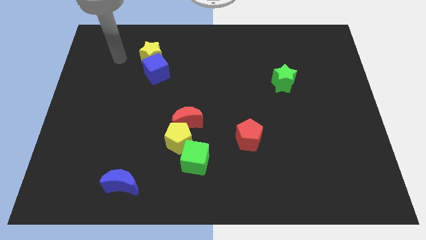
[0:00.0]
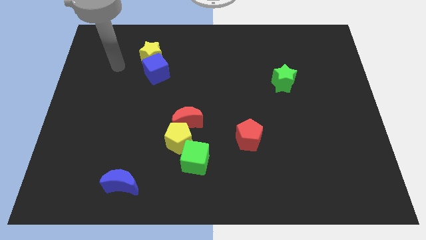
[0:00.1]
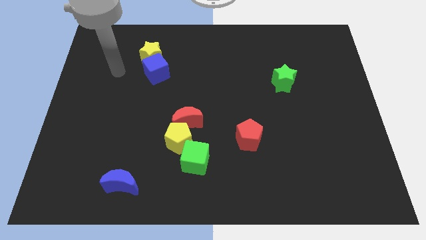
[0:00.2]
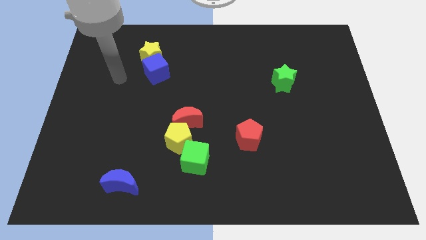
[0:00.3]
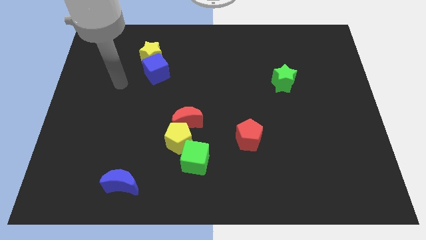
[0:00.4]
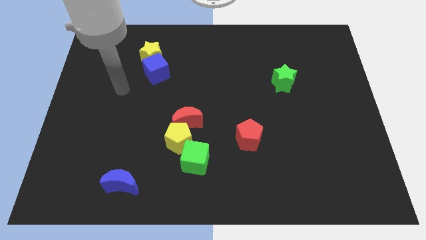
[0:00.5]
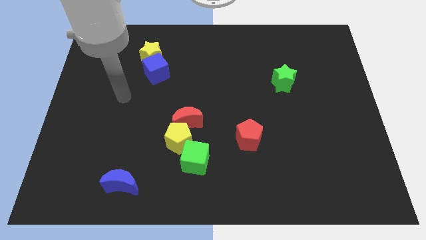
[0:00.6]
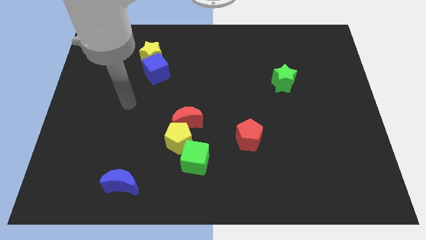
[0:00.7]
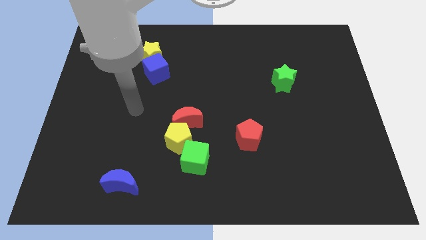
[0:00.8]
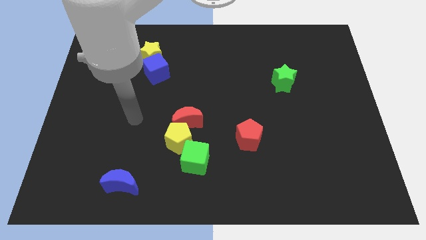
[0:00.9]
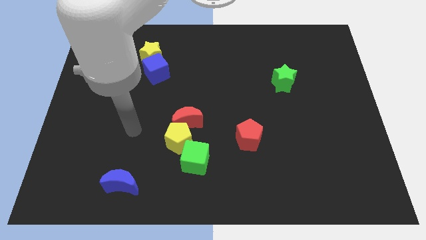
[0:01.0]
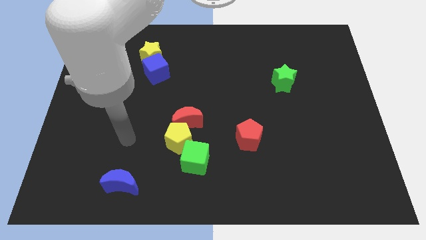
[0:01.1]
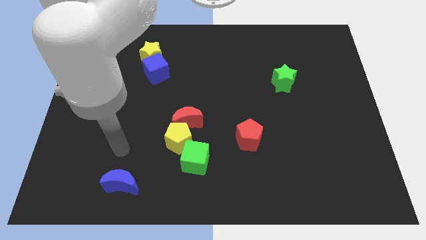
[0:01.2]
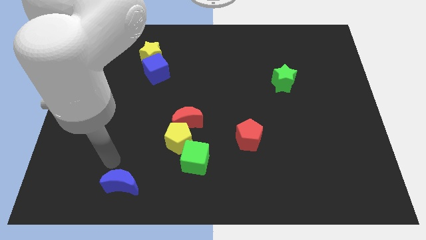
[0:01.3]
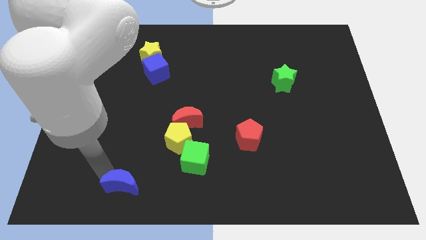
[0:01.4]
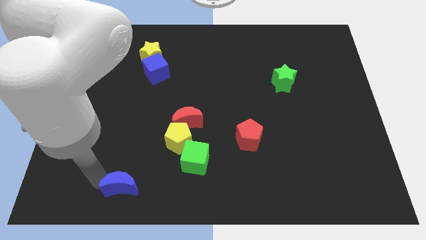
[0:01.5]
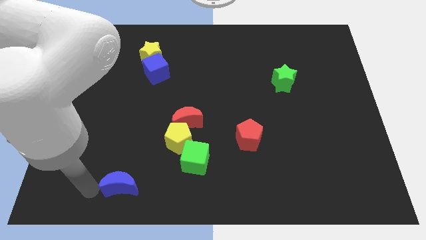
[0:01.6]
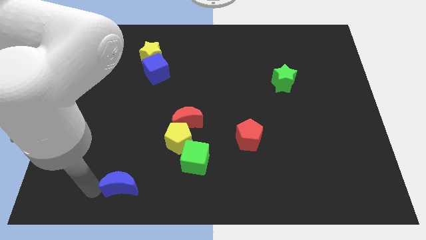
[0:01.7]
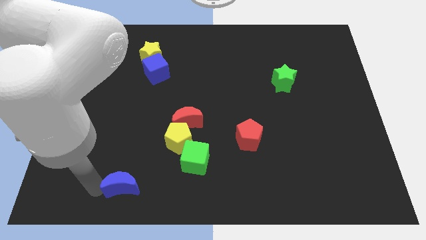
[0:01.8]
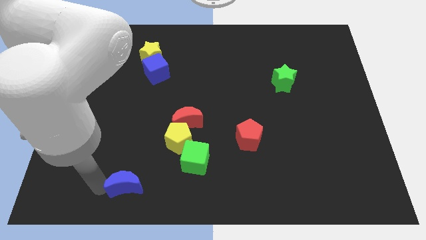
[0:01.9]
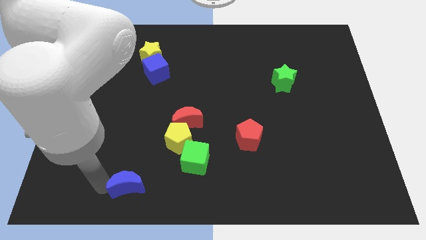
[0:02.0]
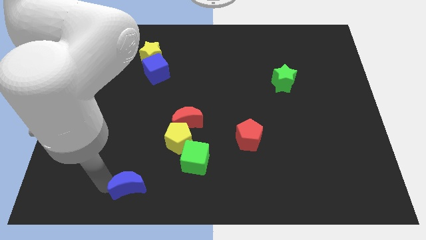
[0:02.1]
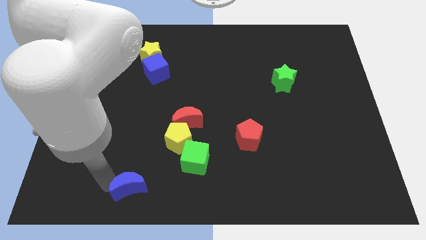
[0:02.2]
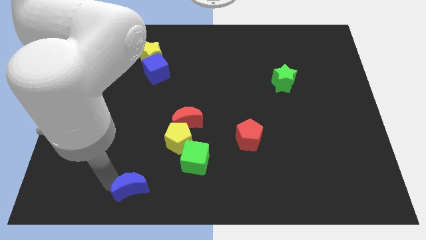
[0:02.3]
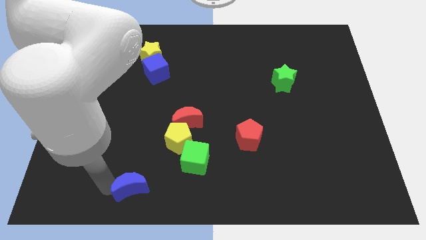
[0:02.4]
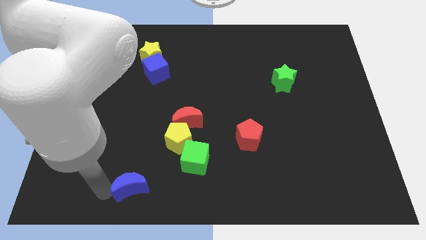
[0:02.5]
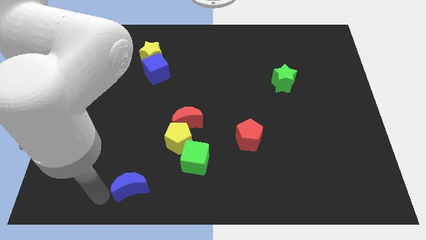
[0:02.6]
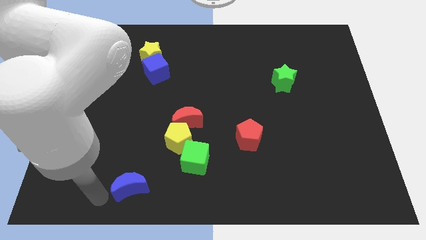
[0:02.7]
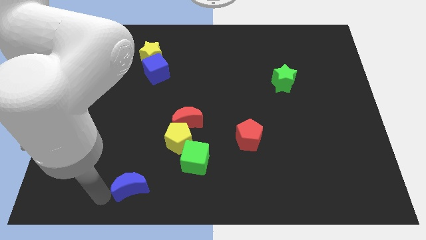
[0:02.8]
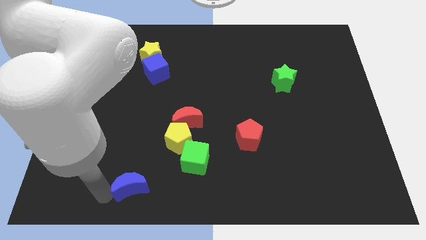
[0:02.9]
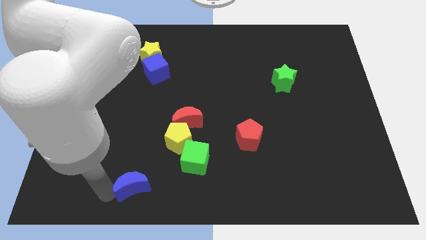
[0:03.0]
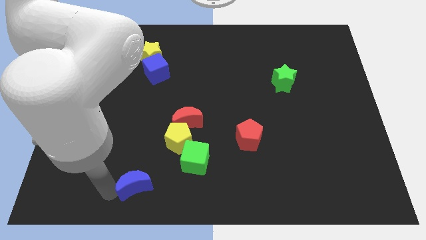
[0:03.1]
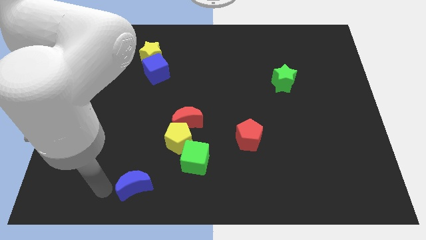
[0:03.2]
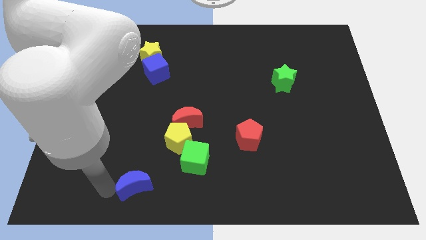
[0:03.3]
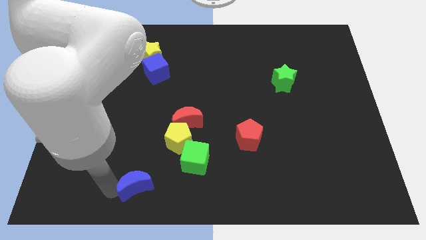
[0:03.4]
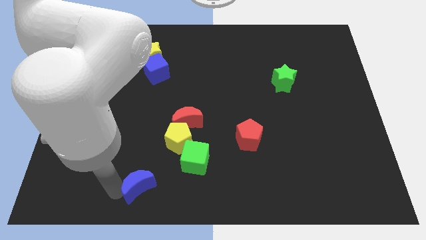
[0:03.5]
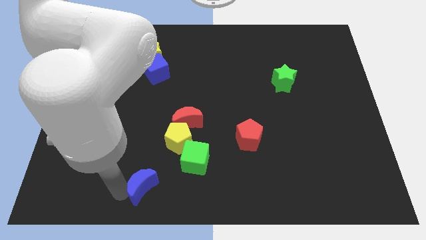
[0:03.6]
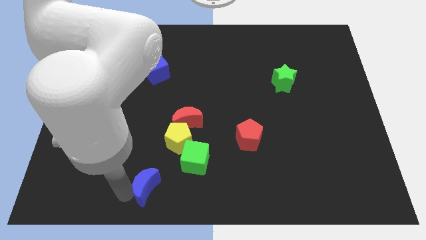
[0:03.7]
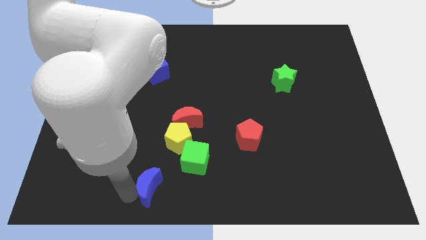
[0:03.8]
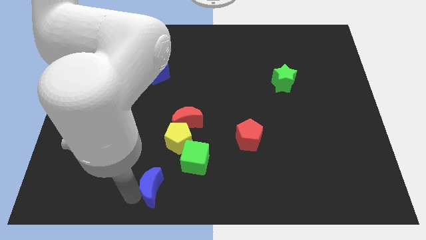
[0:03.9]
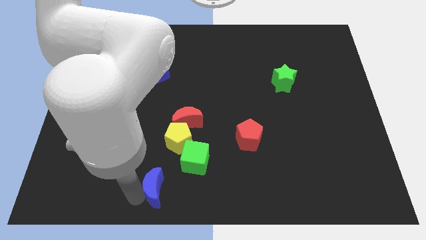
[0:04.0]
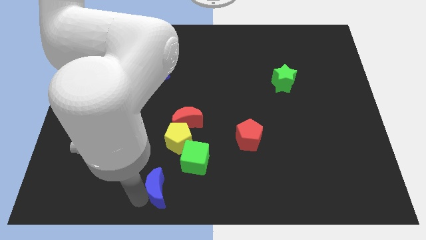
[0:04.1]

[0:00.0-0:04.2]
push the blue moon to the right somewhat

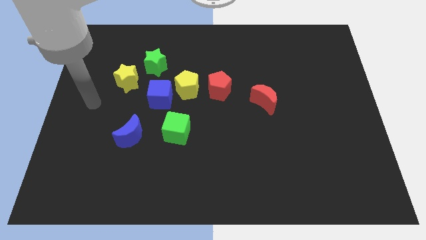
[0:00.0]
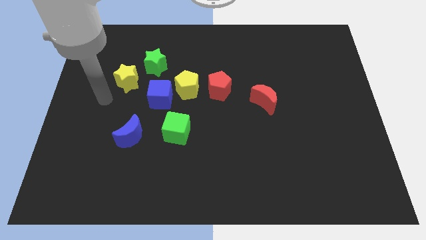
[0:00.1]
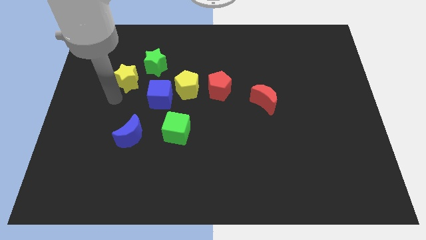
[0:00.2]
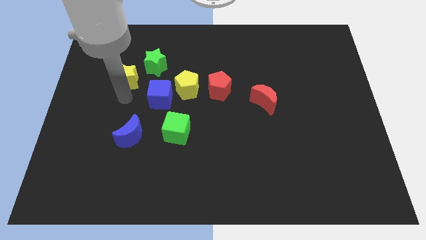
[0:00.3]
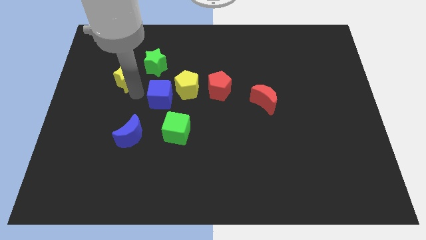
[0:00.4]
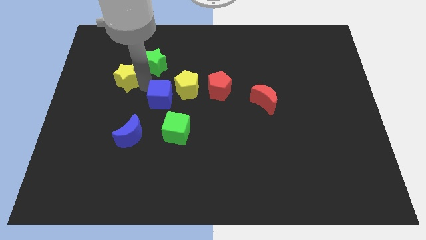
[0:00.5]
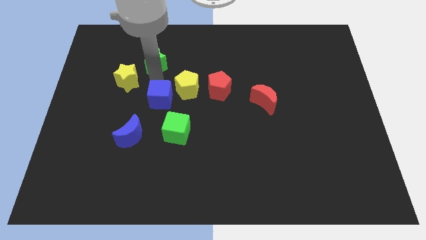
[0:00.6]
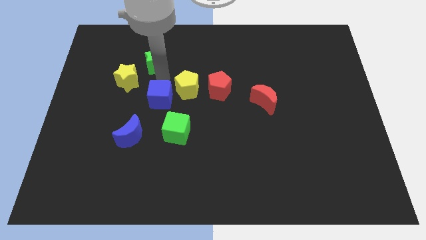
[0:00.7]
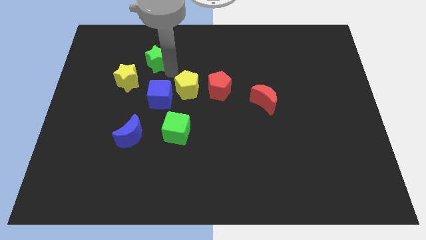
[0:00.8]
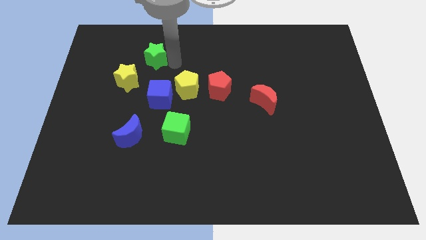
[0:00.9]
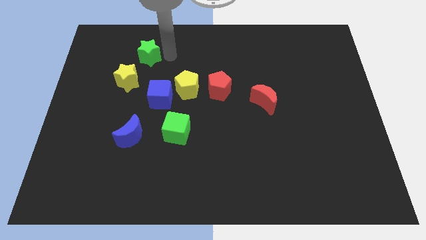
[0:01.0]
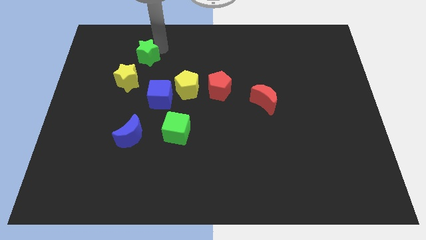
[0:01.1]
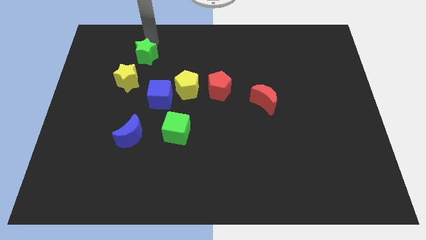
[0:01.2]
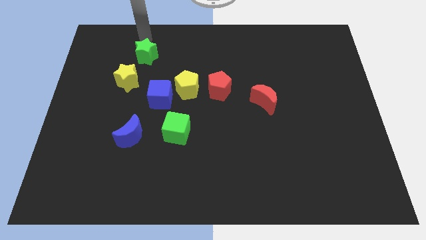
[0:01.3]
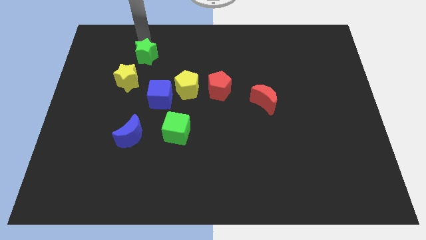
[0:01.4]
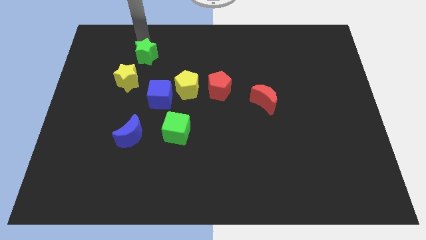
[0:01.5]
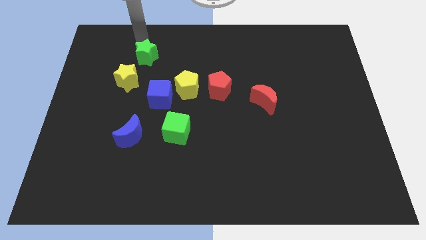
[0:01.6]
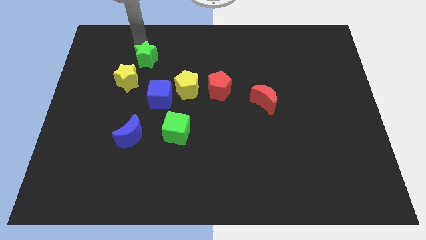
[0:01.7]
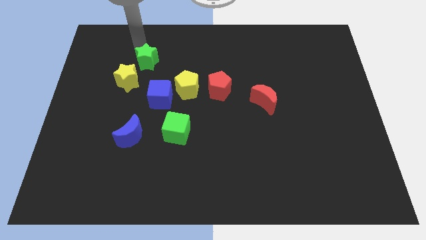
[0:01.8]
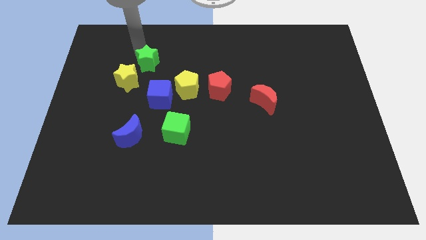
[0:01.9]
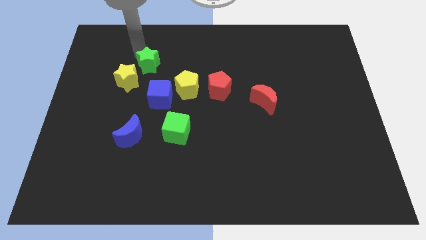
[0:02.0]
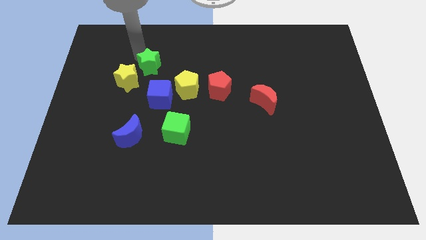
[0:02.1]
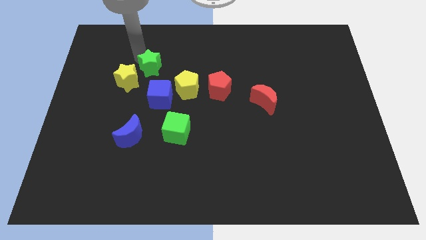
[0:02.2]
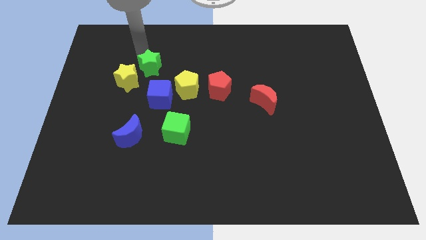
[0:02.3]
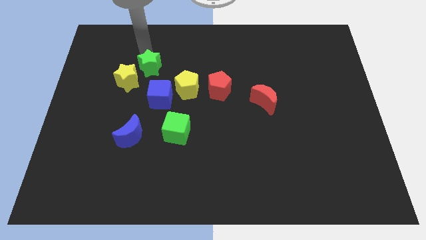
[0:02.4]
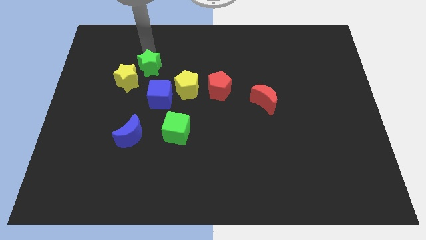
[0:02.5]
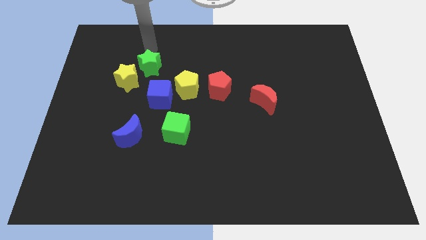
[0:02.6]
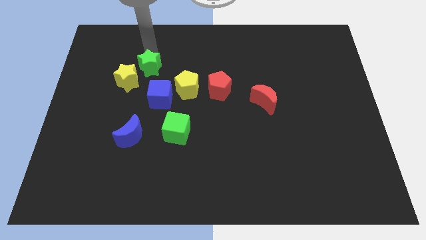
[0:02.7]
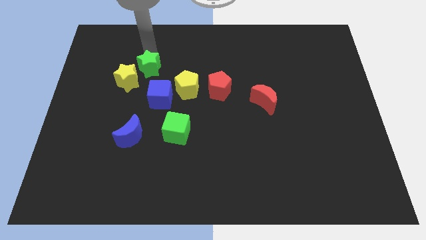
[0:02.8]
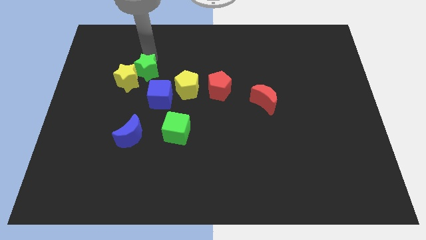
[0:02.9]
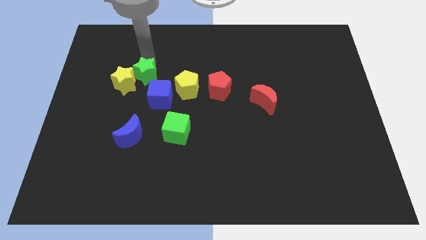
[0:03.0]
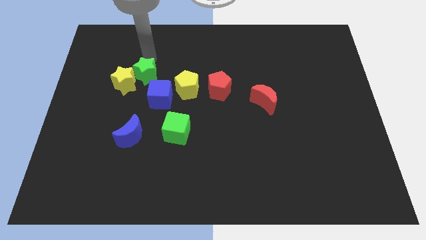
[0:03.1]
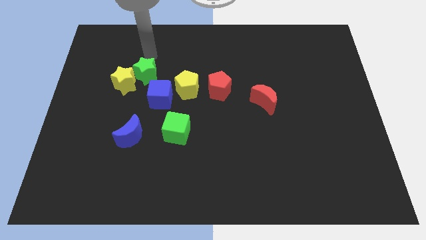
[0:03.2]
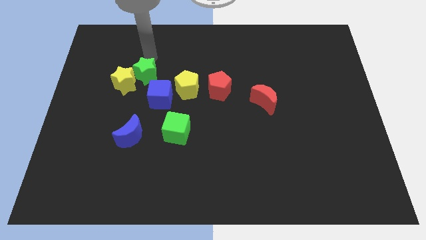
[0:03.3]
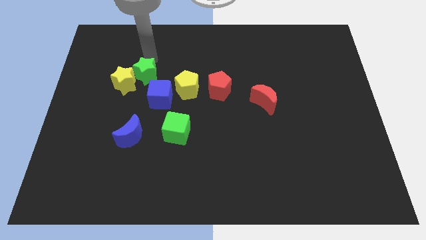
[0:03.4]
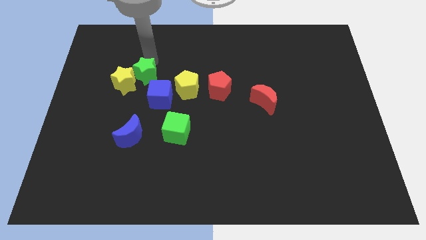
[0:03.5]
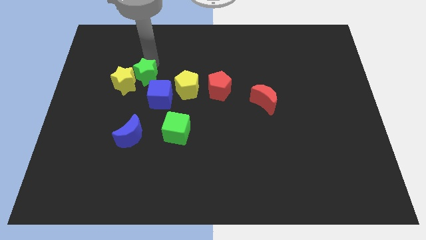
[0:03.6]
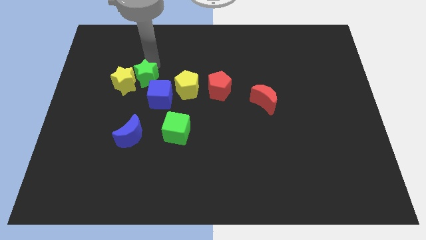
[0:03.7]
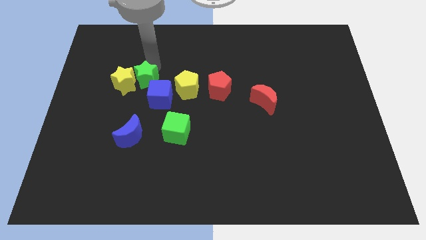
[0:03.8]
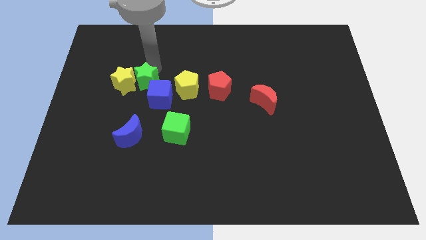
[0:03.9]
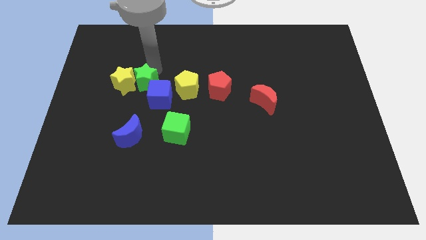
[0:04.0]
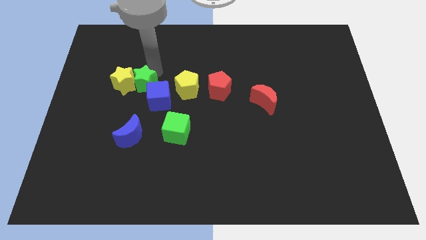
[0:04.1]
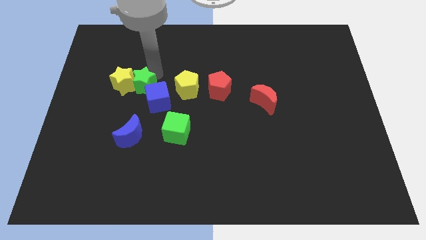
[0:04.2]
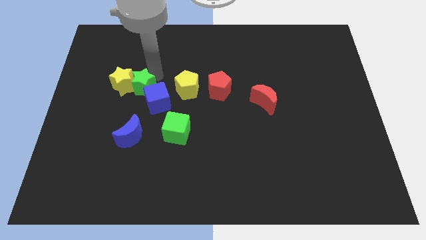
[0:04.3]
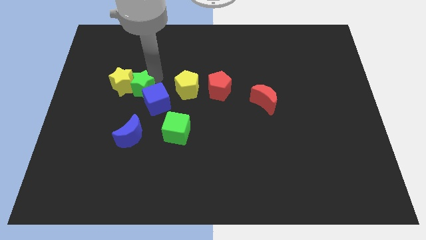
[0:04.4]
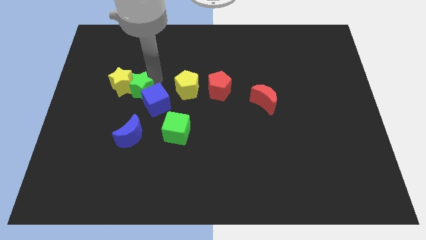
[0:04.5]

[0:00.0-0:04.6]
slide the green star somewhat diagonally down and left
